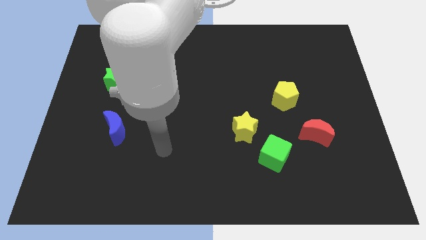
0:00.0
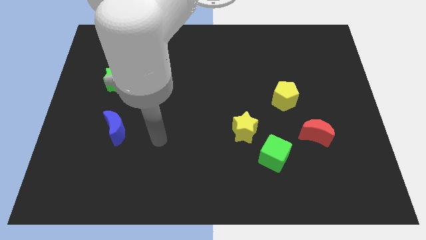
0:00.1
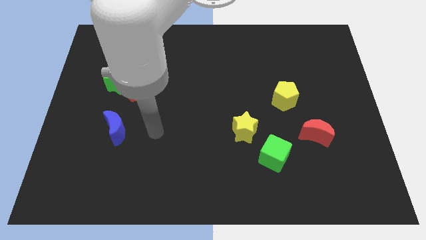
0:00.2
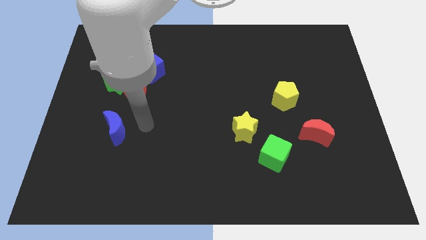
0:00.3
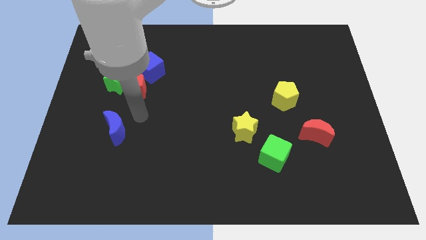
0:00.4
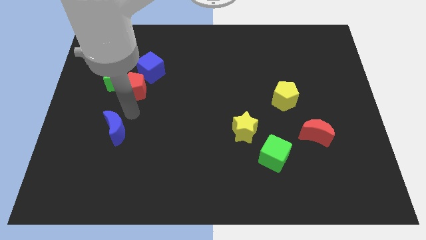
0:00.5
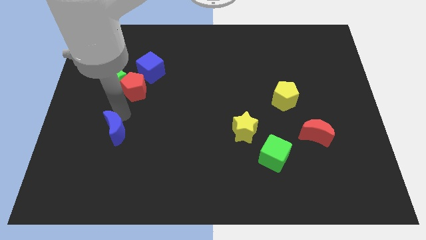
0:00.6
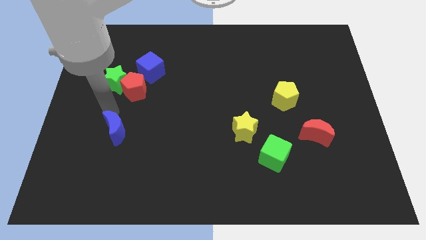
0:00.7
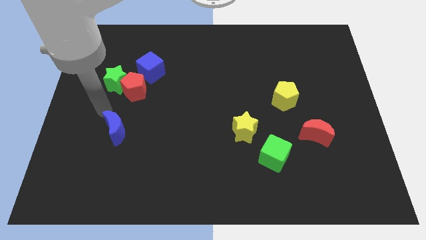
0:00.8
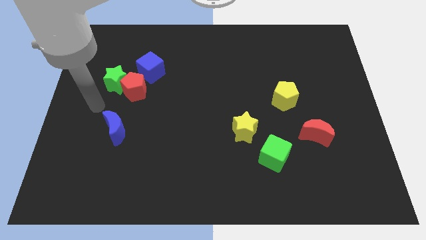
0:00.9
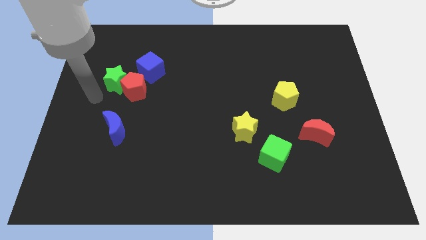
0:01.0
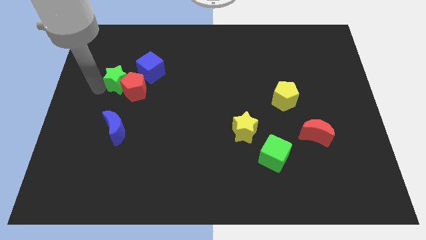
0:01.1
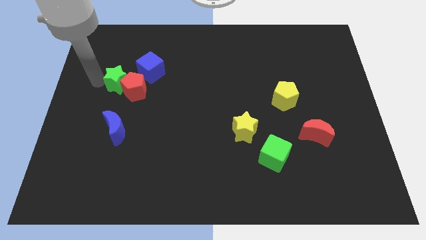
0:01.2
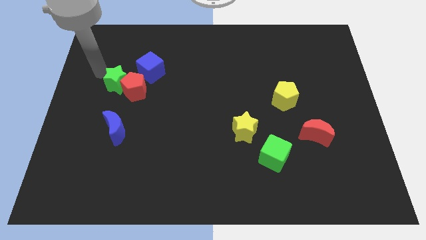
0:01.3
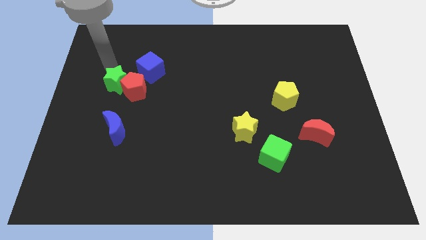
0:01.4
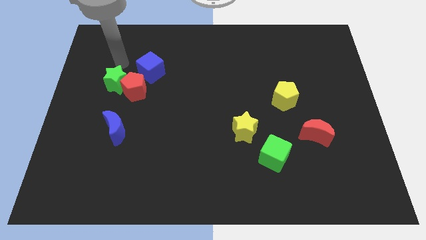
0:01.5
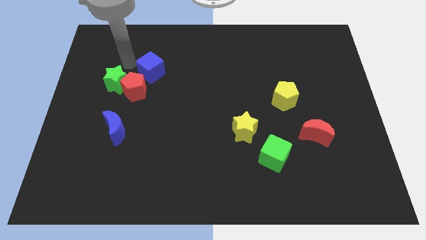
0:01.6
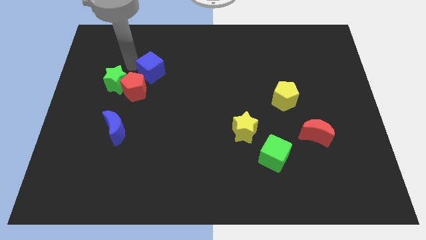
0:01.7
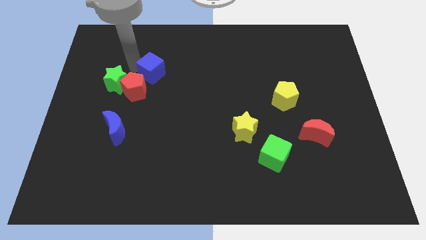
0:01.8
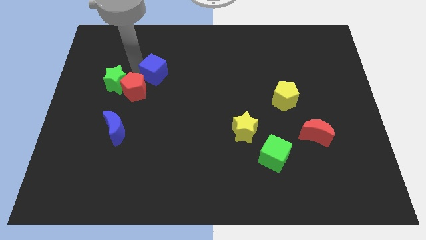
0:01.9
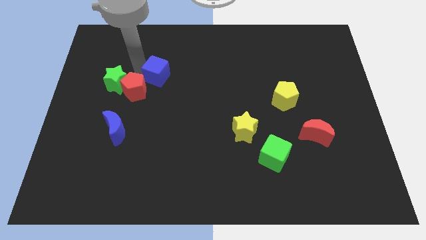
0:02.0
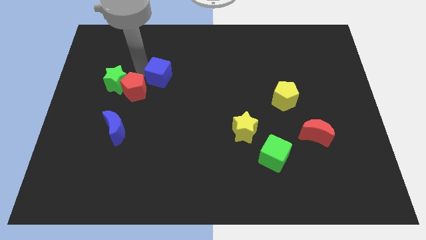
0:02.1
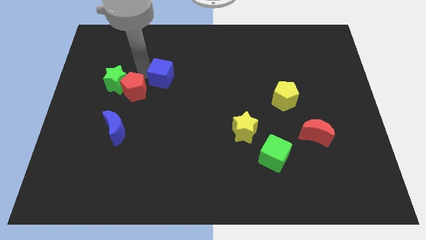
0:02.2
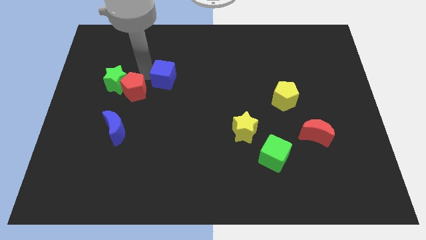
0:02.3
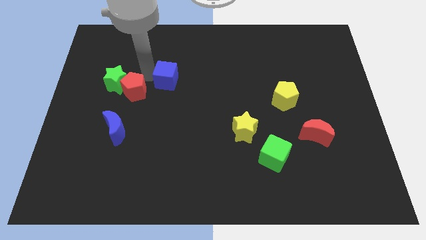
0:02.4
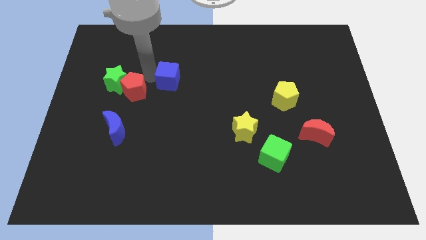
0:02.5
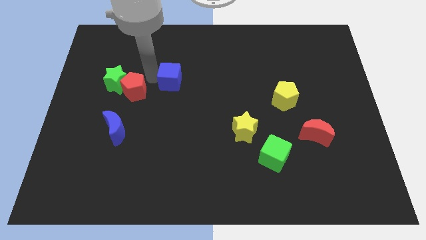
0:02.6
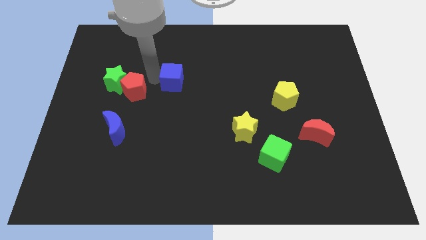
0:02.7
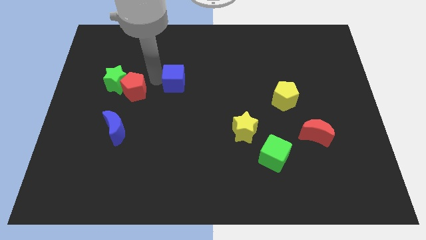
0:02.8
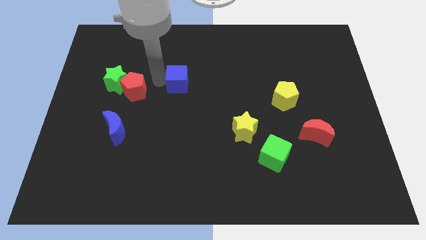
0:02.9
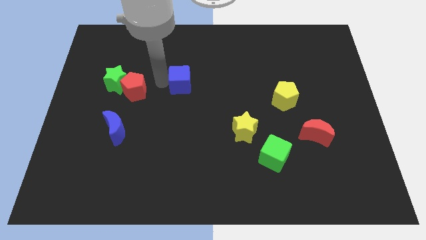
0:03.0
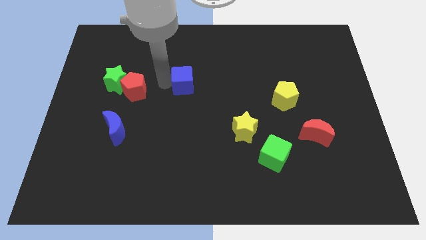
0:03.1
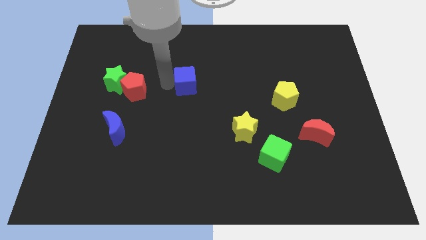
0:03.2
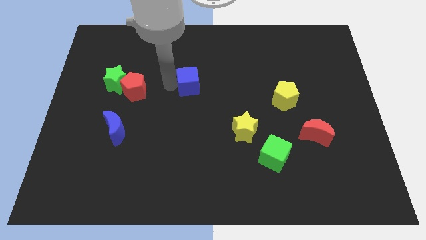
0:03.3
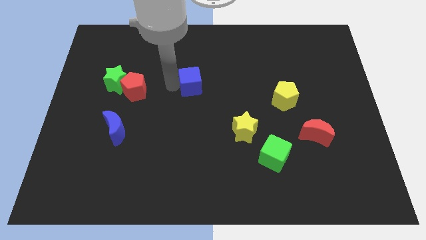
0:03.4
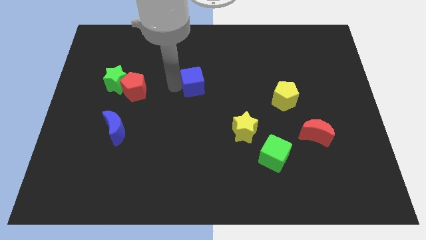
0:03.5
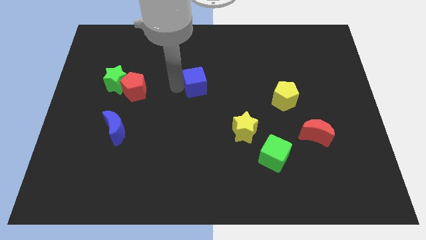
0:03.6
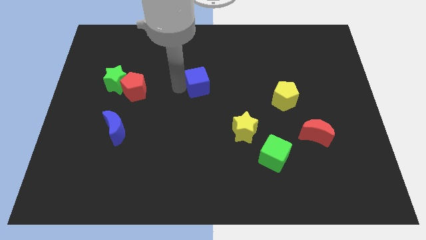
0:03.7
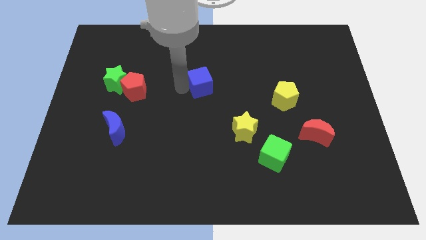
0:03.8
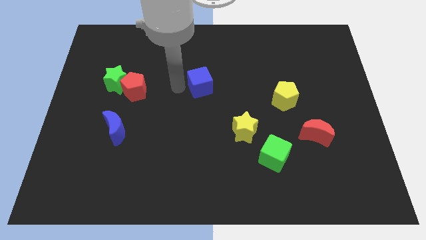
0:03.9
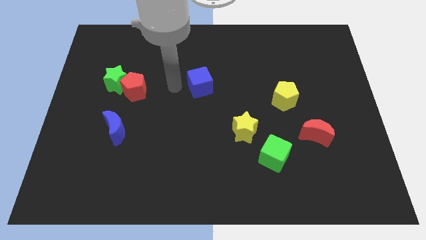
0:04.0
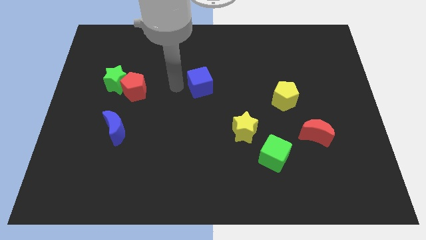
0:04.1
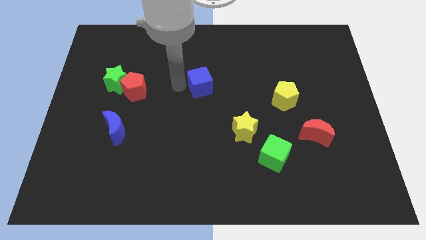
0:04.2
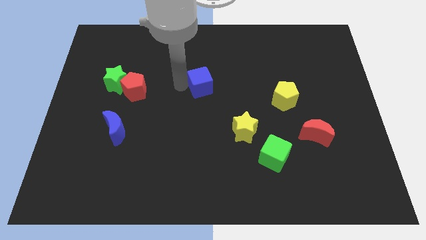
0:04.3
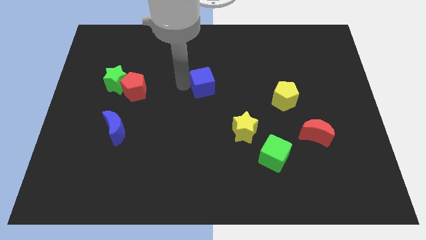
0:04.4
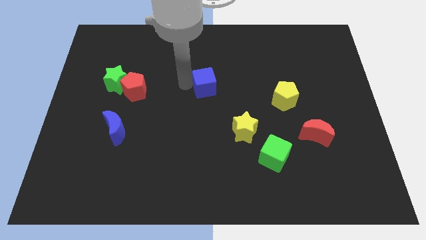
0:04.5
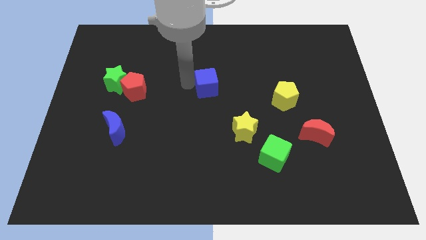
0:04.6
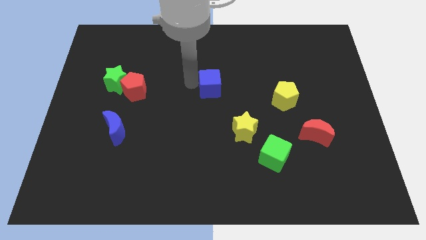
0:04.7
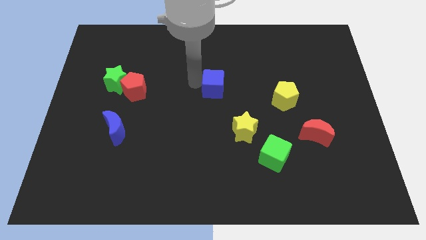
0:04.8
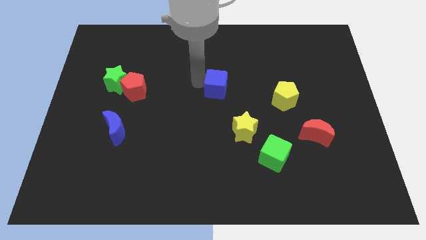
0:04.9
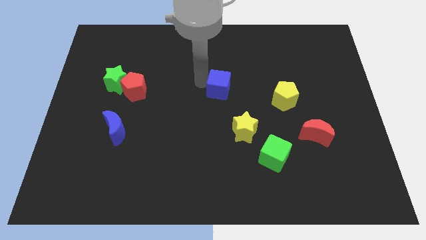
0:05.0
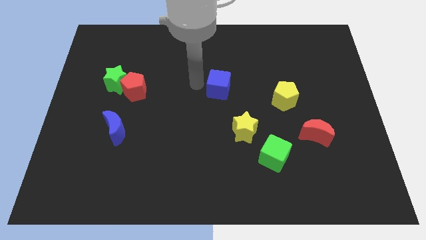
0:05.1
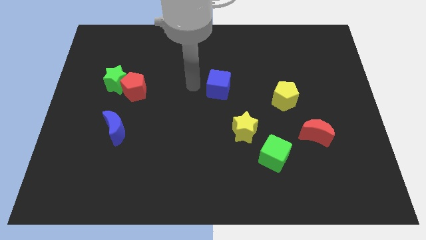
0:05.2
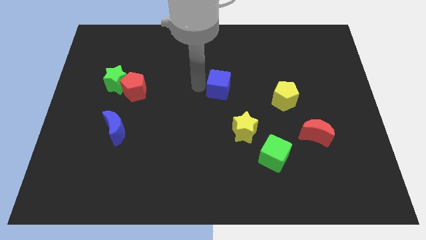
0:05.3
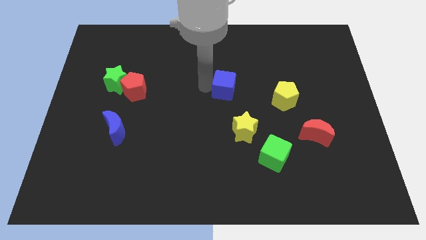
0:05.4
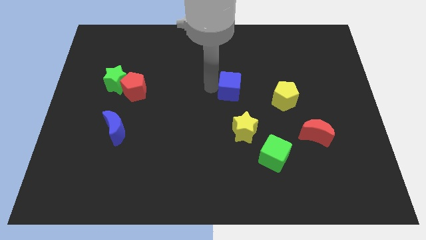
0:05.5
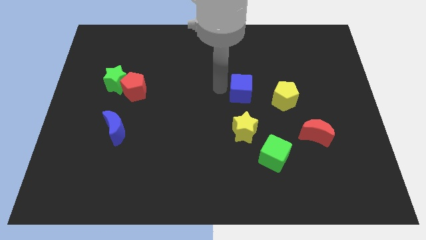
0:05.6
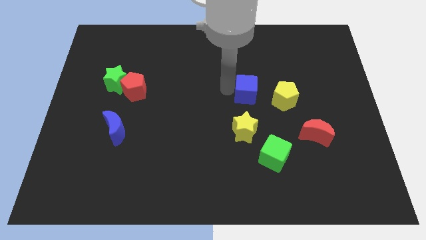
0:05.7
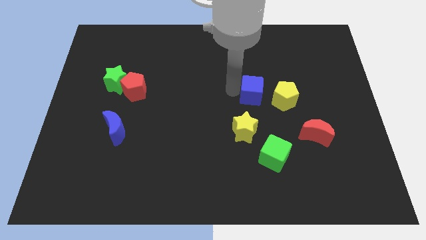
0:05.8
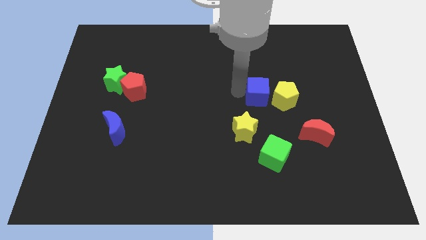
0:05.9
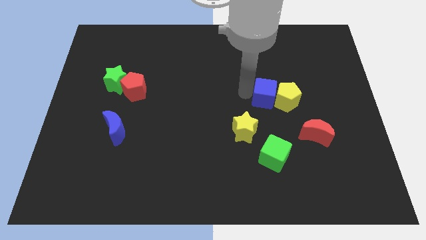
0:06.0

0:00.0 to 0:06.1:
push the blue cube close to the yellow pentagon

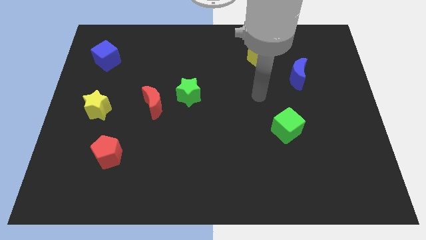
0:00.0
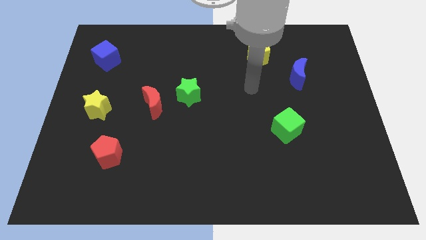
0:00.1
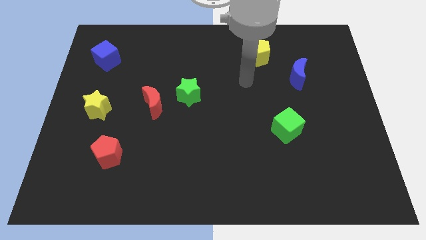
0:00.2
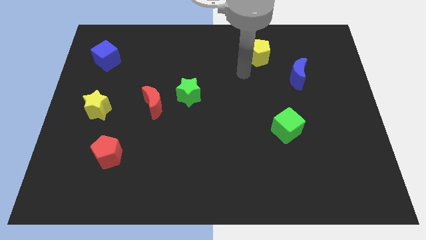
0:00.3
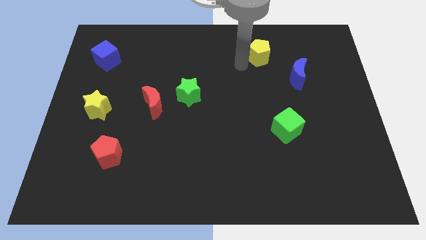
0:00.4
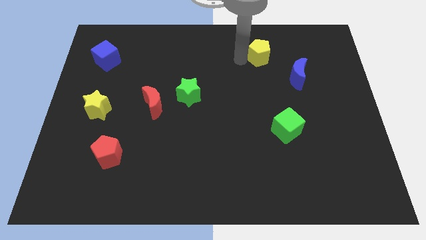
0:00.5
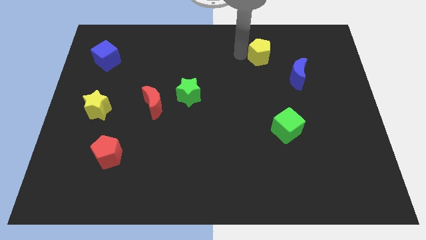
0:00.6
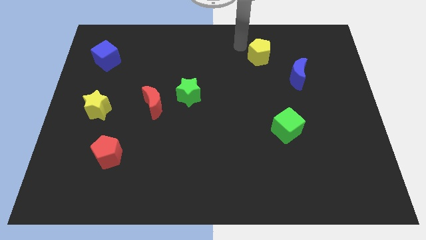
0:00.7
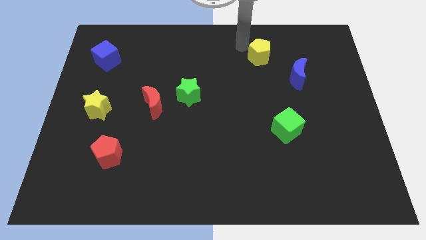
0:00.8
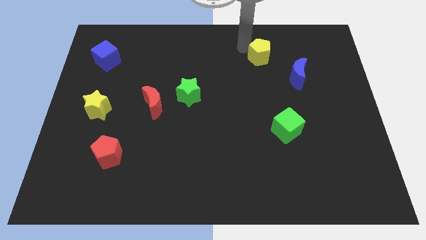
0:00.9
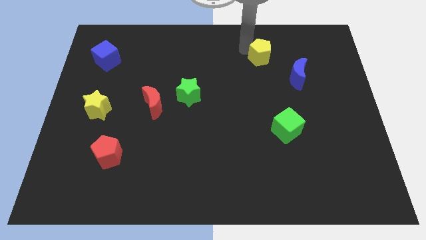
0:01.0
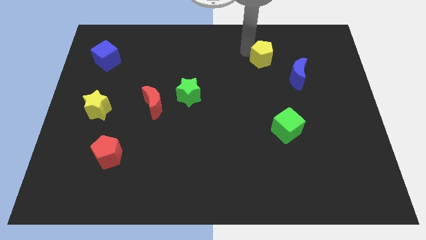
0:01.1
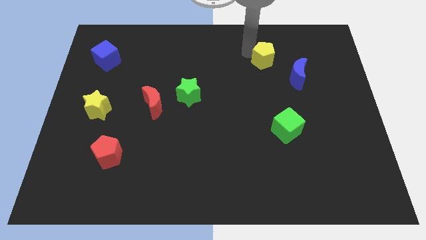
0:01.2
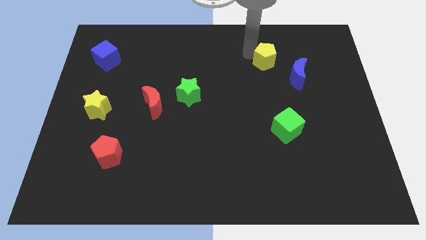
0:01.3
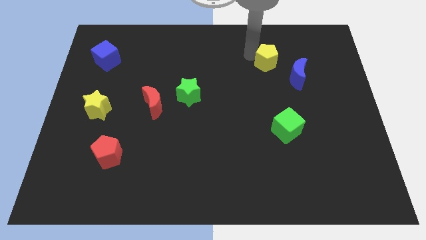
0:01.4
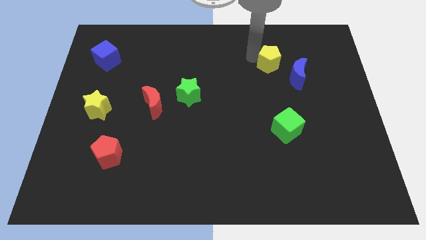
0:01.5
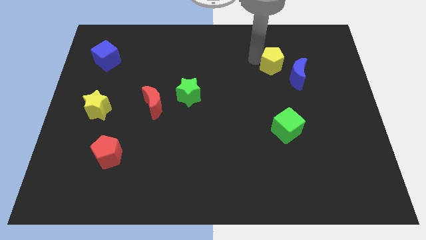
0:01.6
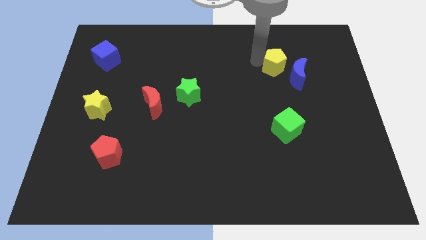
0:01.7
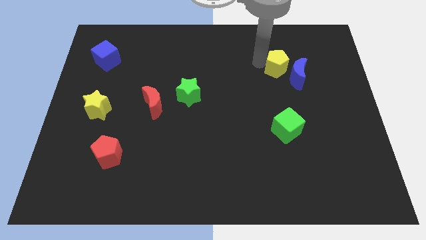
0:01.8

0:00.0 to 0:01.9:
push the yellow pentagon next to the blue moon
